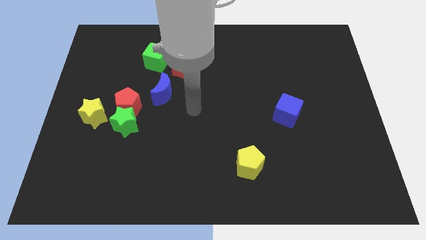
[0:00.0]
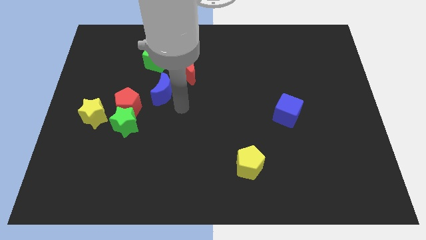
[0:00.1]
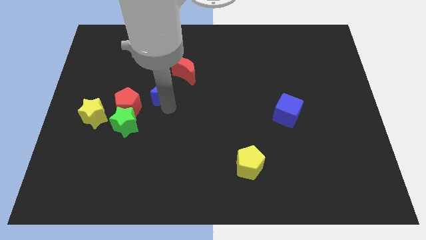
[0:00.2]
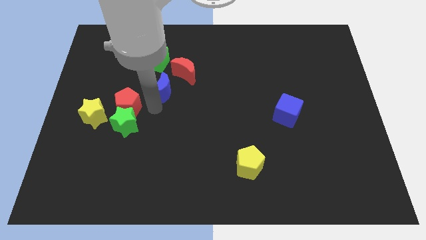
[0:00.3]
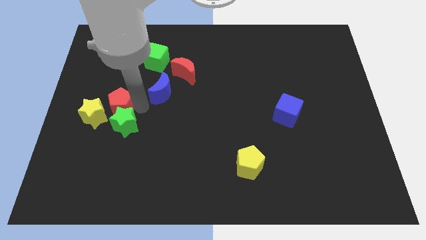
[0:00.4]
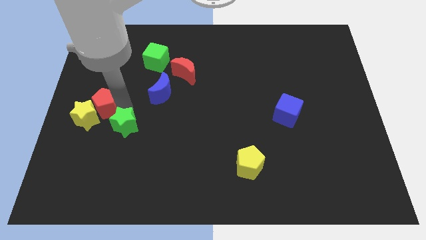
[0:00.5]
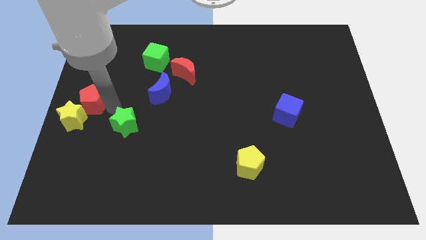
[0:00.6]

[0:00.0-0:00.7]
separate the green star from the red pentagon and yellow star

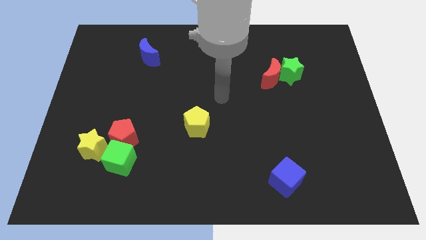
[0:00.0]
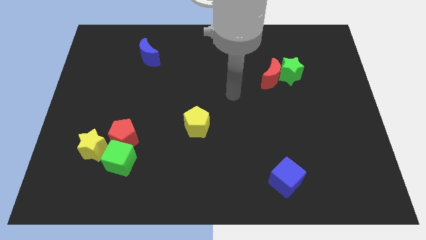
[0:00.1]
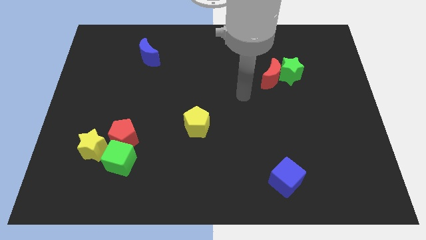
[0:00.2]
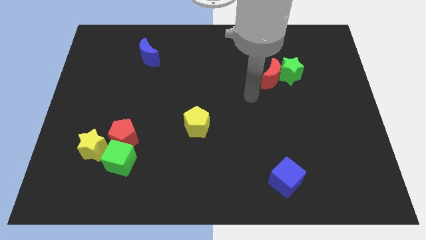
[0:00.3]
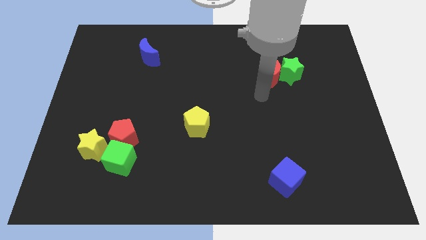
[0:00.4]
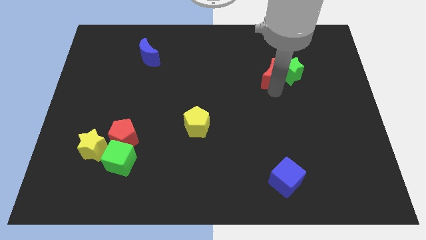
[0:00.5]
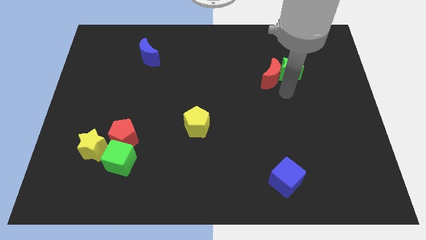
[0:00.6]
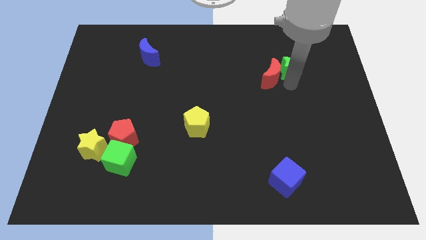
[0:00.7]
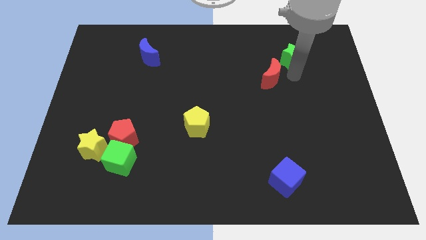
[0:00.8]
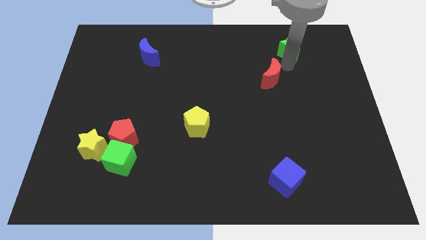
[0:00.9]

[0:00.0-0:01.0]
separate the red moon from the green star

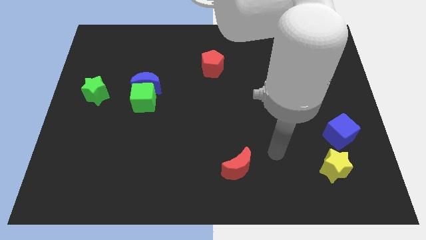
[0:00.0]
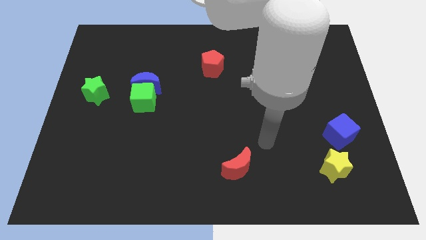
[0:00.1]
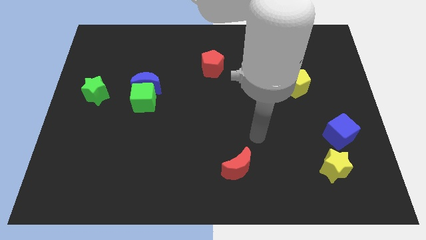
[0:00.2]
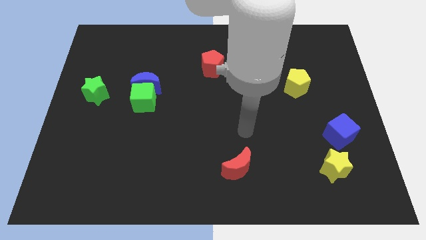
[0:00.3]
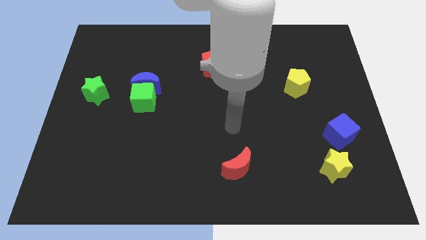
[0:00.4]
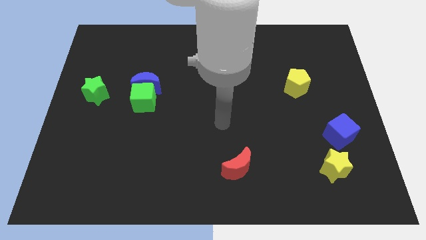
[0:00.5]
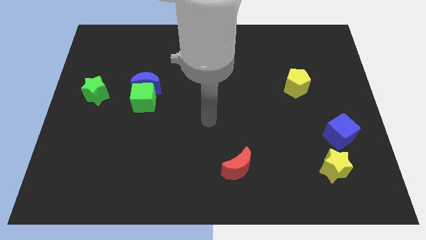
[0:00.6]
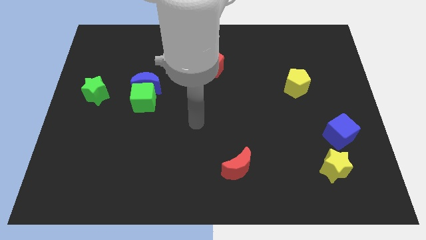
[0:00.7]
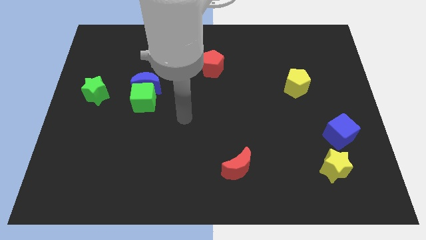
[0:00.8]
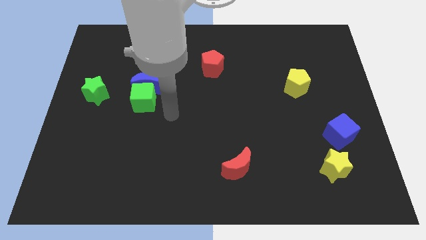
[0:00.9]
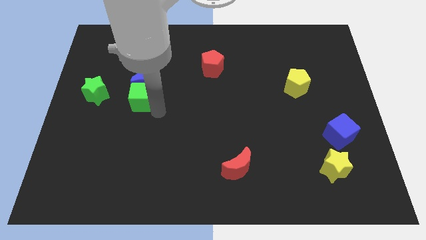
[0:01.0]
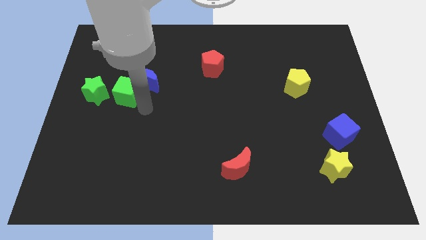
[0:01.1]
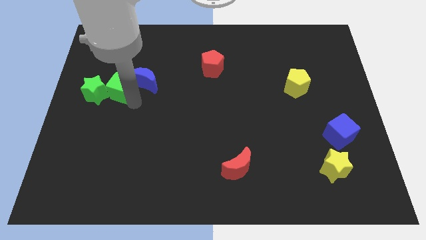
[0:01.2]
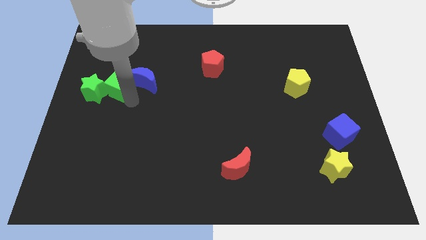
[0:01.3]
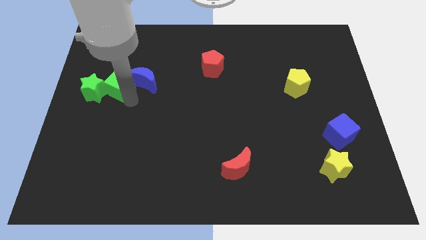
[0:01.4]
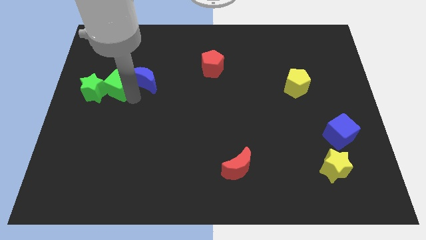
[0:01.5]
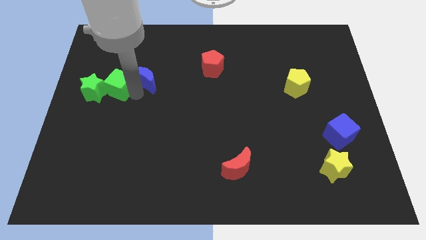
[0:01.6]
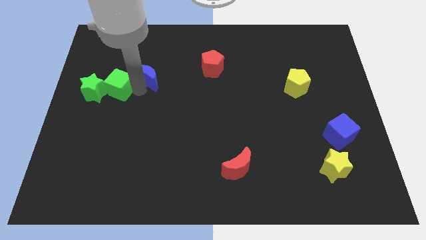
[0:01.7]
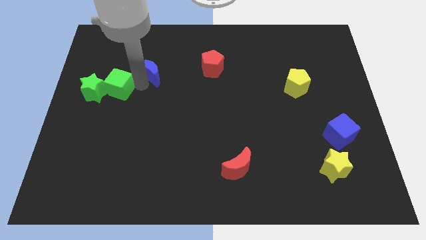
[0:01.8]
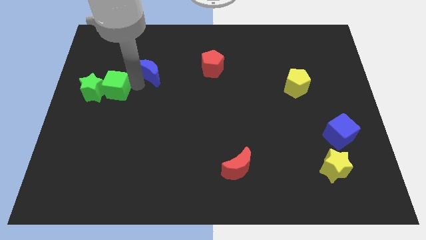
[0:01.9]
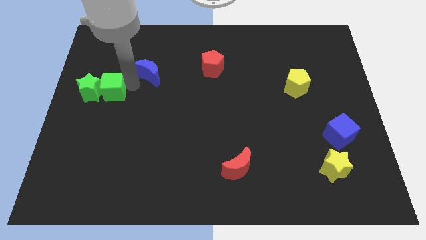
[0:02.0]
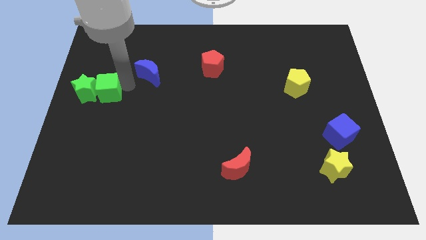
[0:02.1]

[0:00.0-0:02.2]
separate the blue moon from the green cube

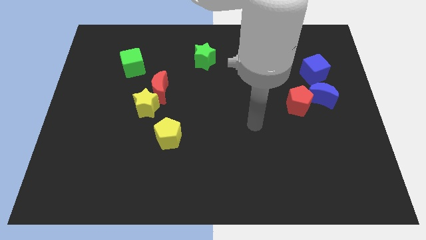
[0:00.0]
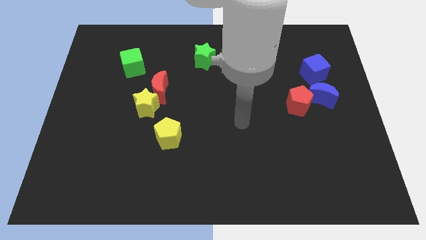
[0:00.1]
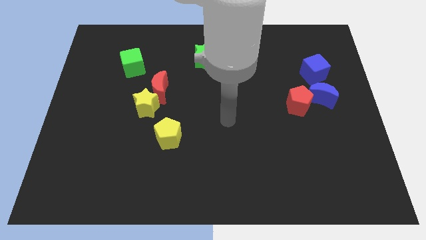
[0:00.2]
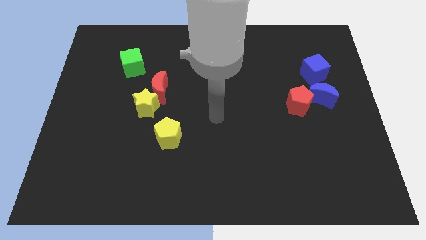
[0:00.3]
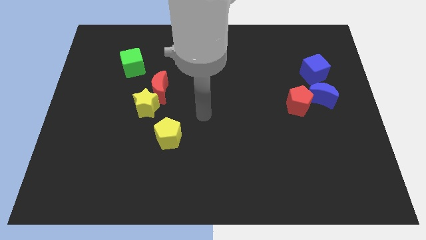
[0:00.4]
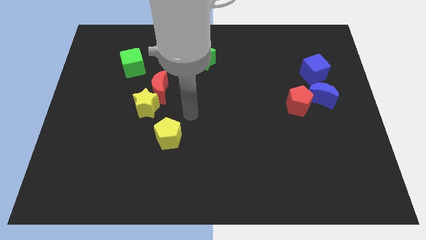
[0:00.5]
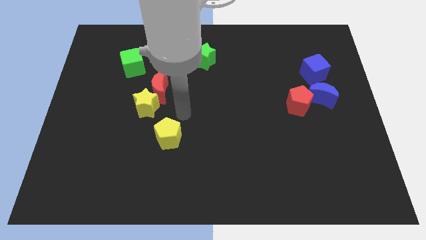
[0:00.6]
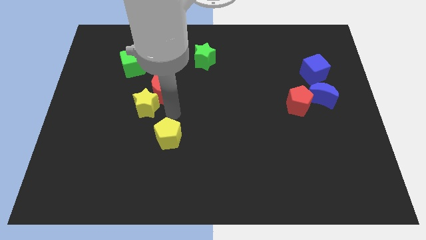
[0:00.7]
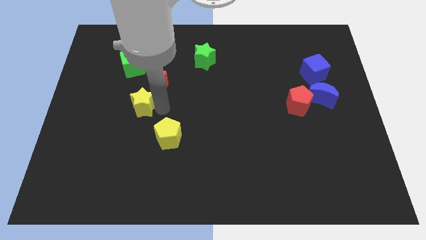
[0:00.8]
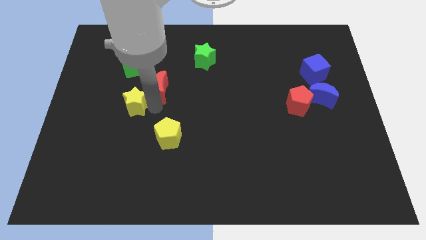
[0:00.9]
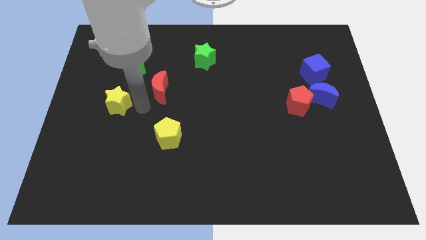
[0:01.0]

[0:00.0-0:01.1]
separate the red moon from the yellow star

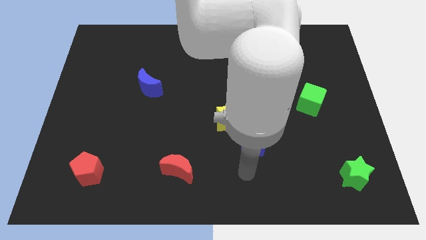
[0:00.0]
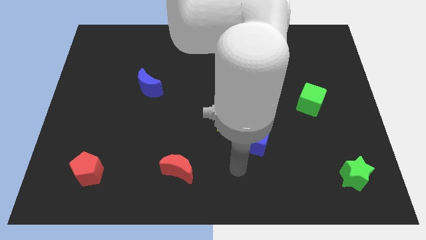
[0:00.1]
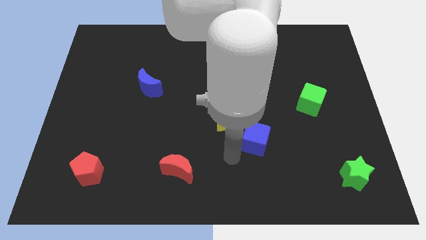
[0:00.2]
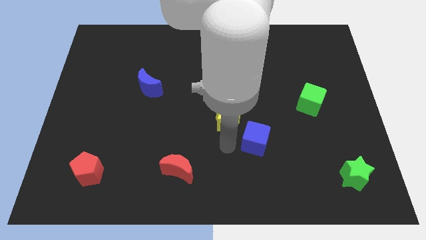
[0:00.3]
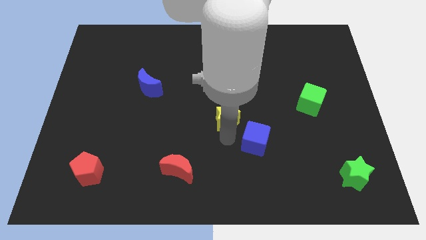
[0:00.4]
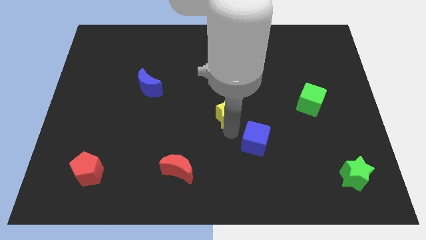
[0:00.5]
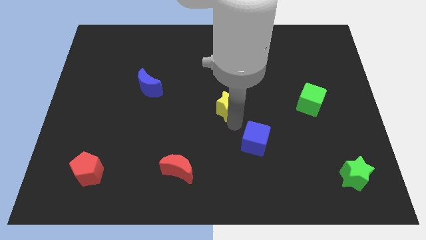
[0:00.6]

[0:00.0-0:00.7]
separate the blue cube from the yellow star

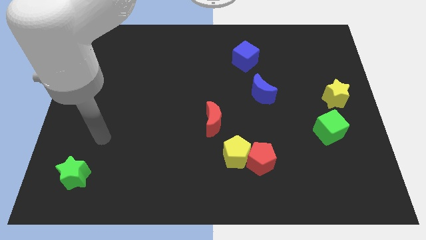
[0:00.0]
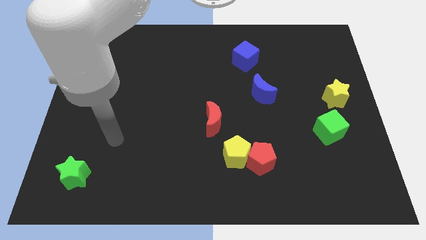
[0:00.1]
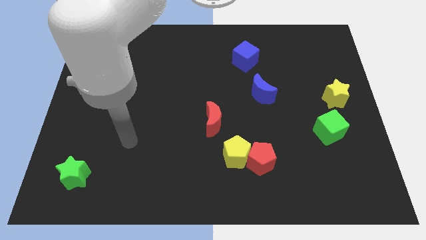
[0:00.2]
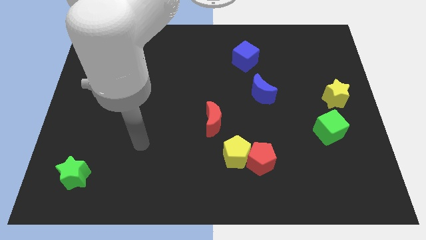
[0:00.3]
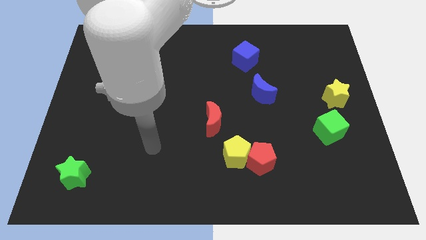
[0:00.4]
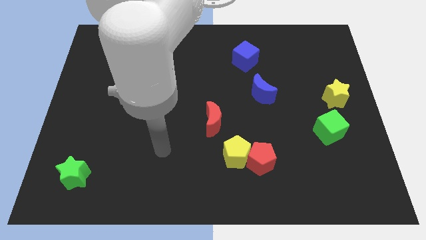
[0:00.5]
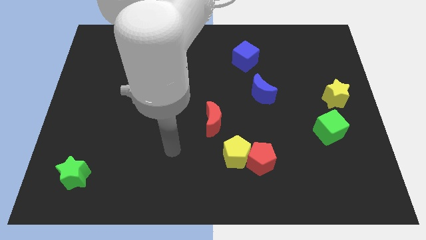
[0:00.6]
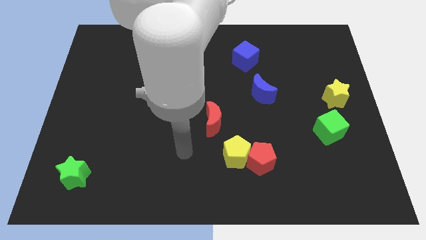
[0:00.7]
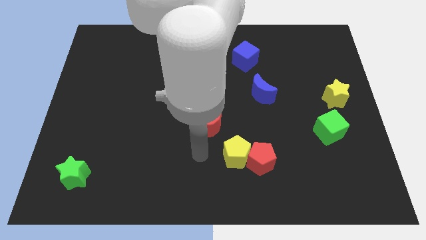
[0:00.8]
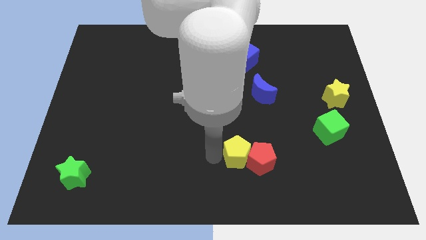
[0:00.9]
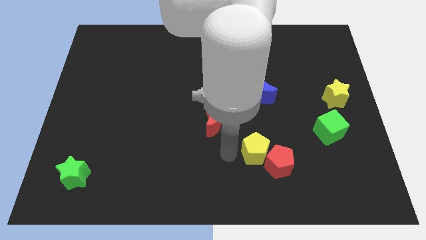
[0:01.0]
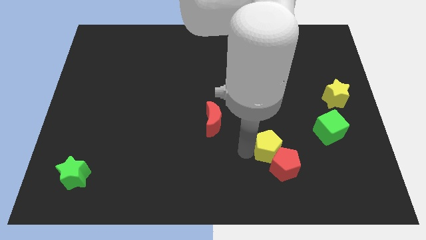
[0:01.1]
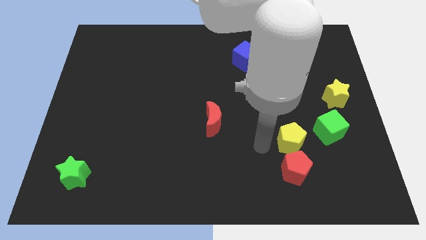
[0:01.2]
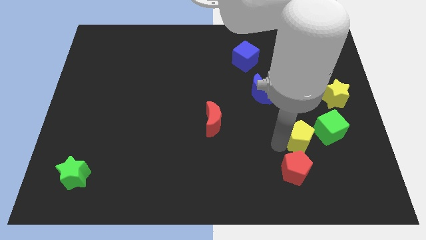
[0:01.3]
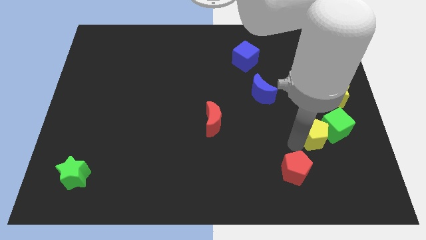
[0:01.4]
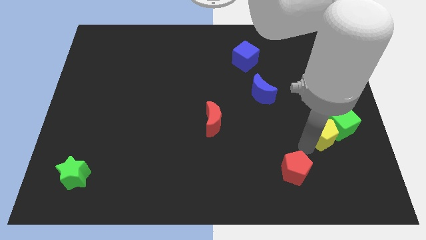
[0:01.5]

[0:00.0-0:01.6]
separate the red pentagon from the yellow pentagon

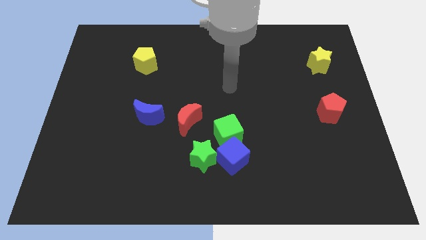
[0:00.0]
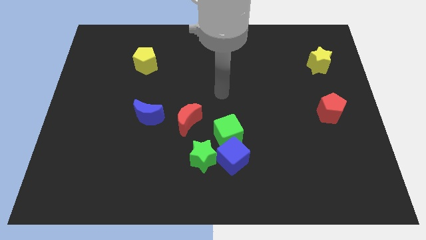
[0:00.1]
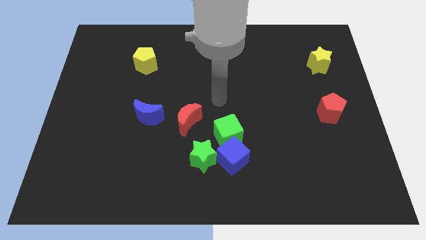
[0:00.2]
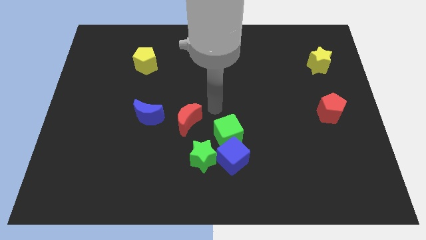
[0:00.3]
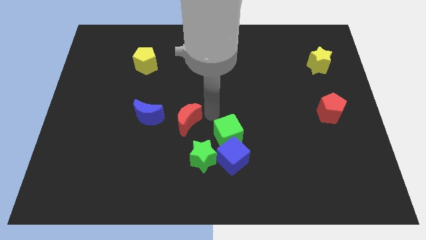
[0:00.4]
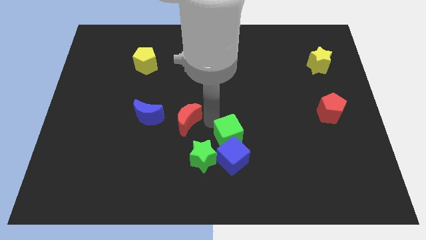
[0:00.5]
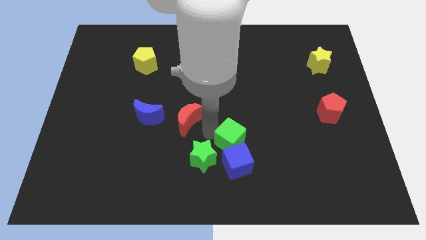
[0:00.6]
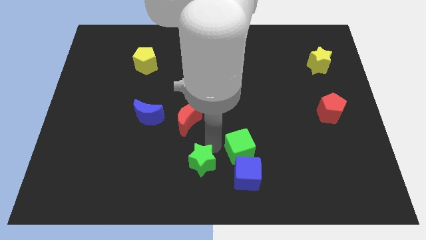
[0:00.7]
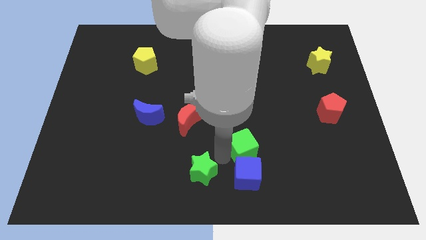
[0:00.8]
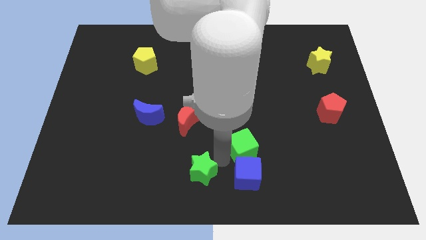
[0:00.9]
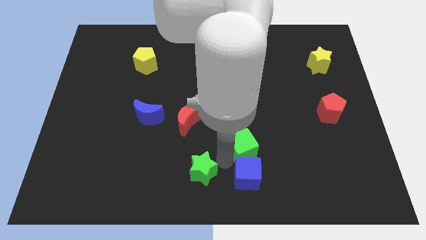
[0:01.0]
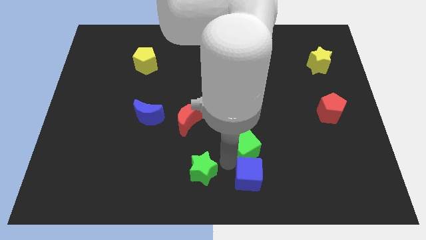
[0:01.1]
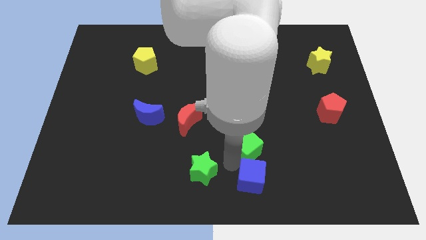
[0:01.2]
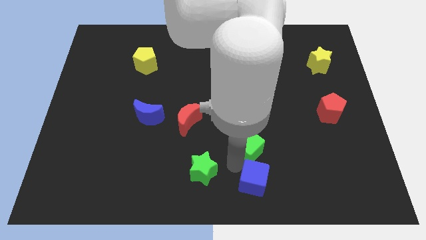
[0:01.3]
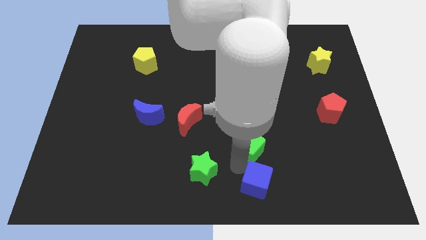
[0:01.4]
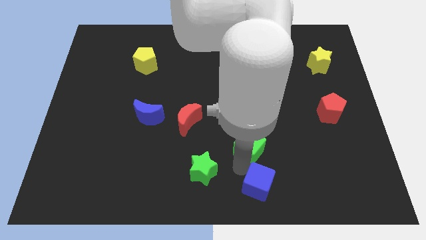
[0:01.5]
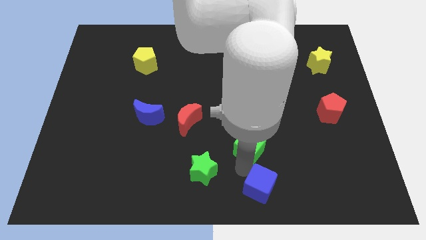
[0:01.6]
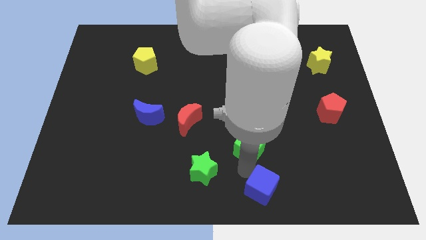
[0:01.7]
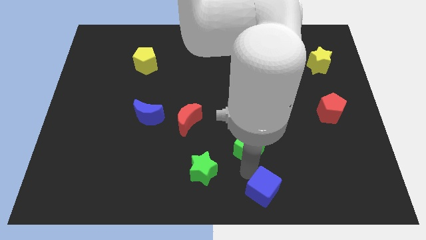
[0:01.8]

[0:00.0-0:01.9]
pull the blue cube apart from the green cube and green star
